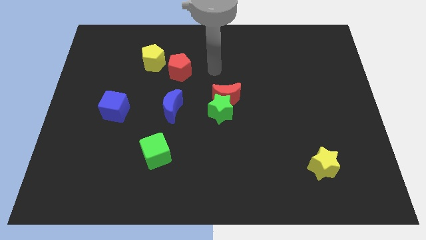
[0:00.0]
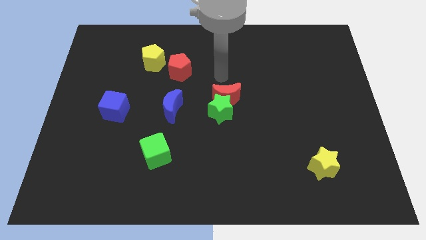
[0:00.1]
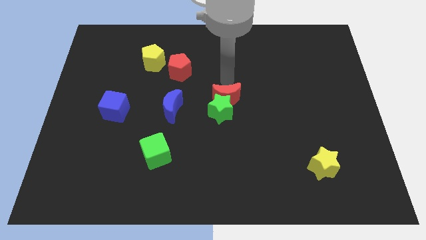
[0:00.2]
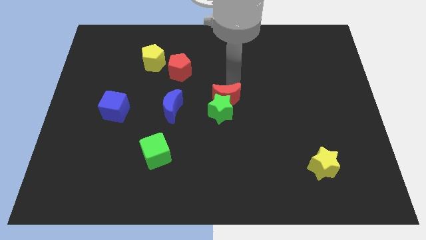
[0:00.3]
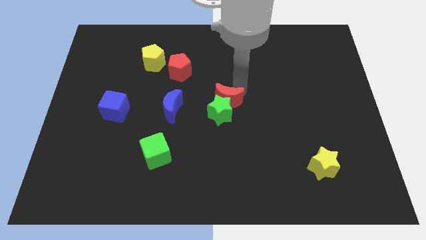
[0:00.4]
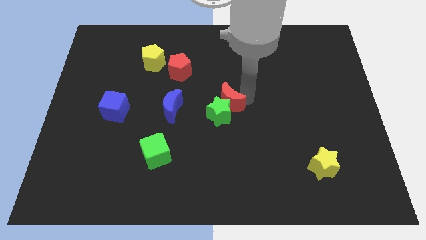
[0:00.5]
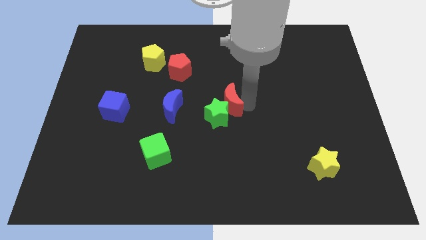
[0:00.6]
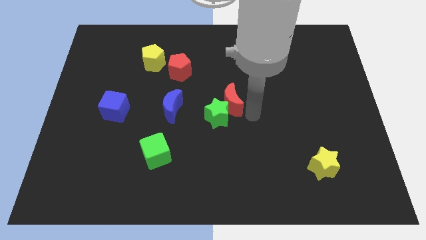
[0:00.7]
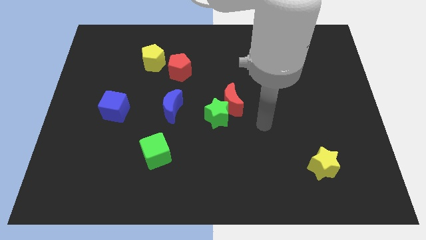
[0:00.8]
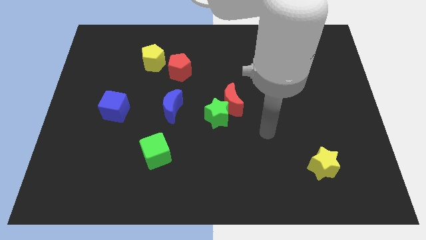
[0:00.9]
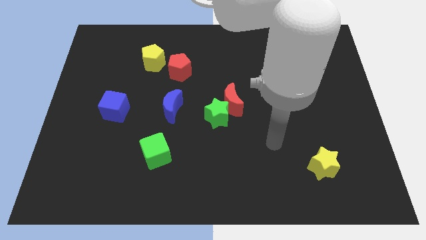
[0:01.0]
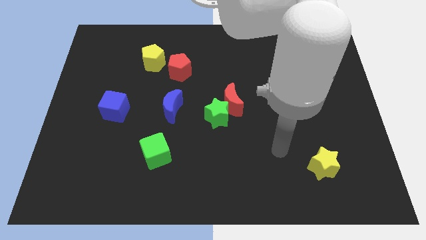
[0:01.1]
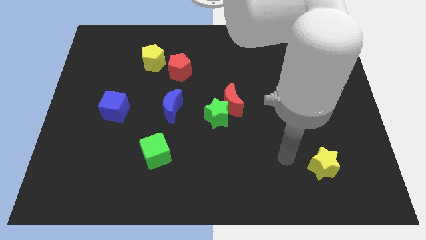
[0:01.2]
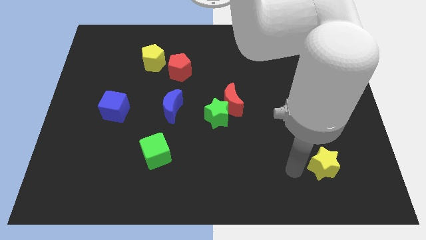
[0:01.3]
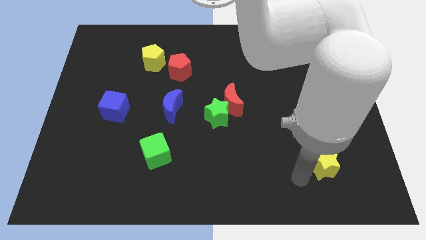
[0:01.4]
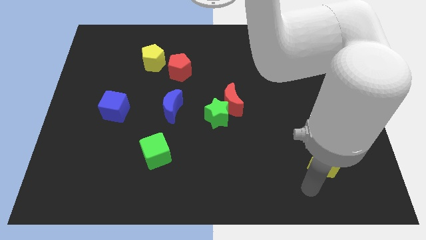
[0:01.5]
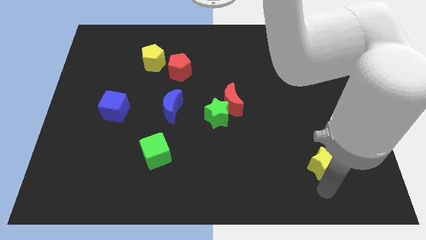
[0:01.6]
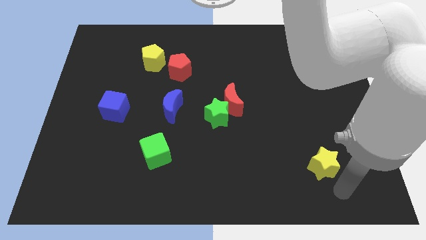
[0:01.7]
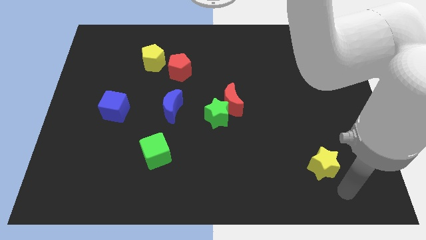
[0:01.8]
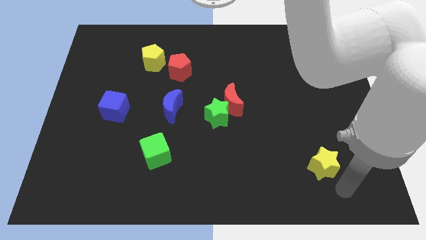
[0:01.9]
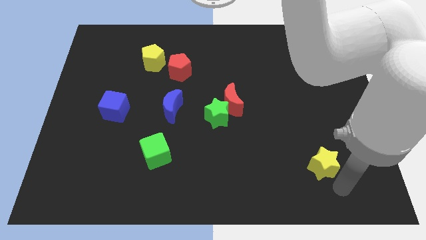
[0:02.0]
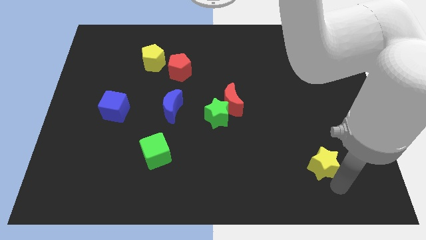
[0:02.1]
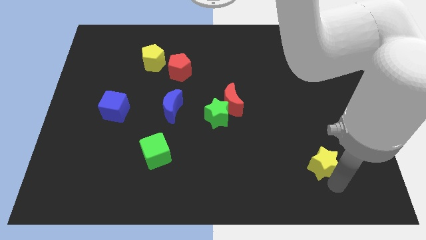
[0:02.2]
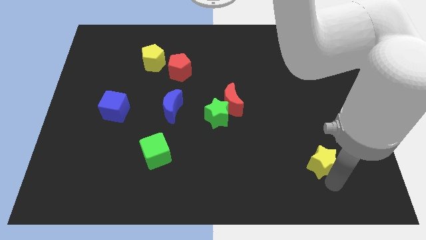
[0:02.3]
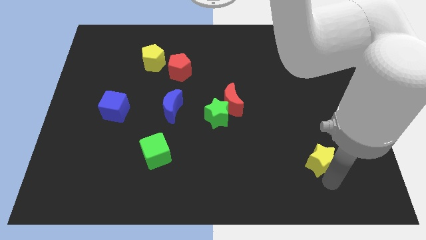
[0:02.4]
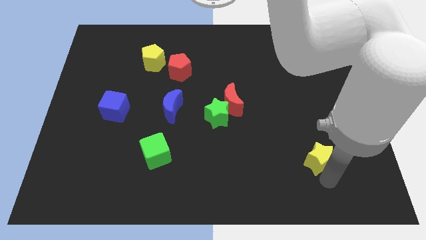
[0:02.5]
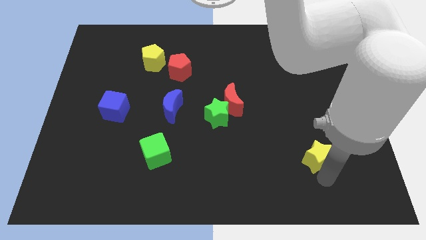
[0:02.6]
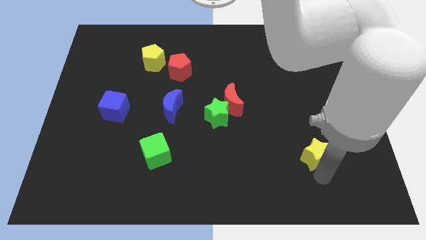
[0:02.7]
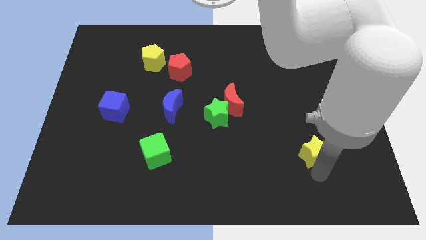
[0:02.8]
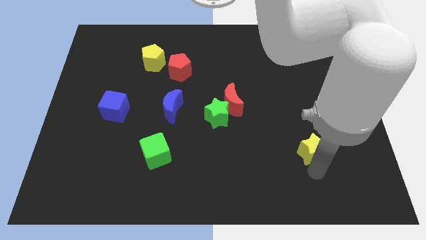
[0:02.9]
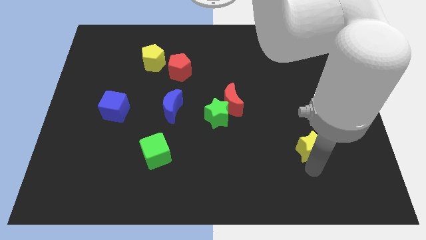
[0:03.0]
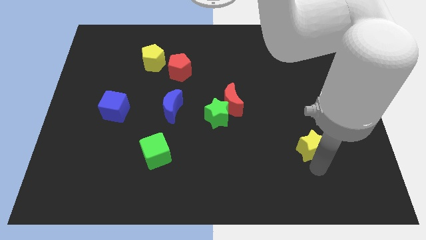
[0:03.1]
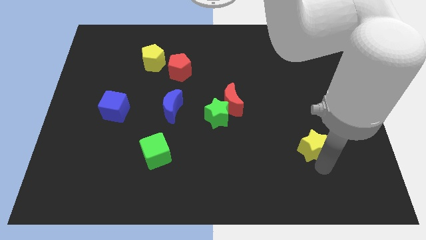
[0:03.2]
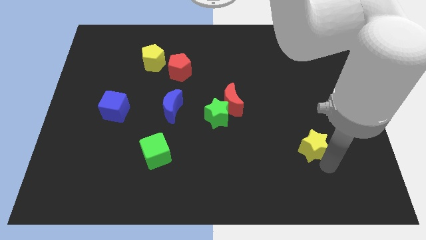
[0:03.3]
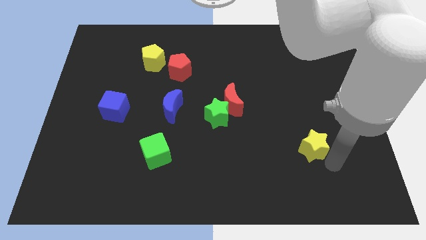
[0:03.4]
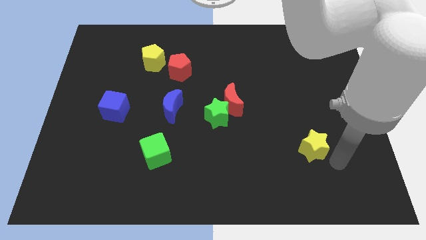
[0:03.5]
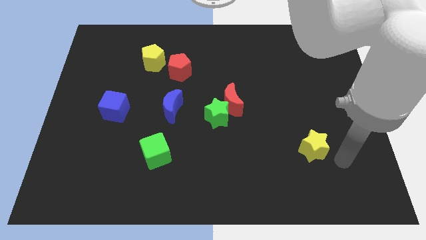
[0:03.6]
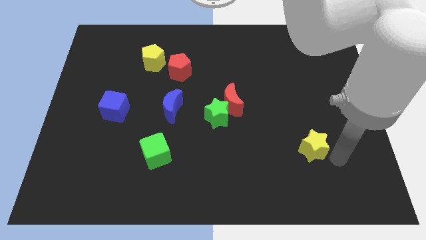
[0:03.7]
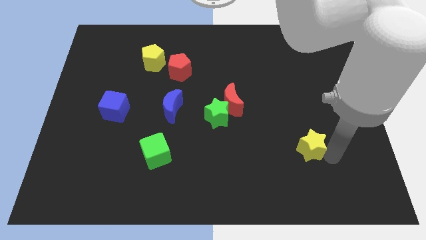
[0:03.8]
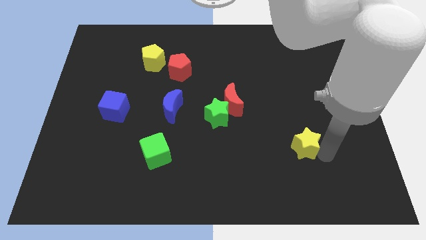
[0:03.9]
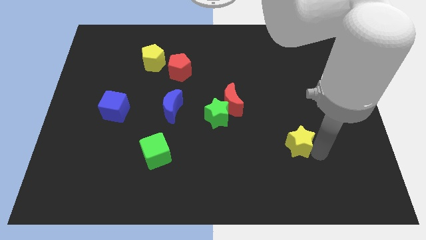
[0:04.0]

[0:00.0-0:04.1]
slide the yellow star a little bit upwards and left

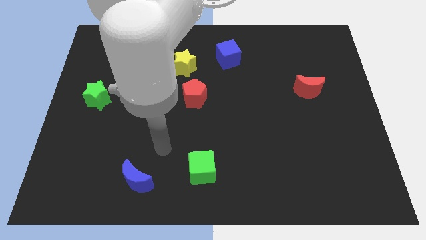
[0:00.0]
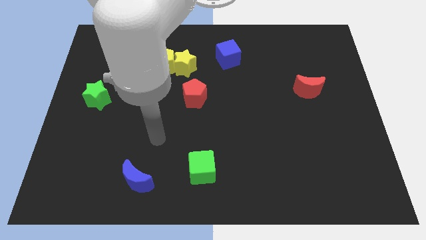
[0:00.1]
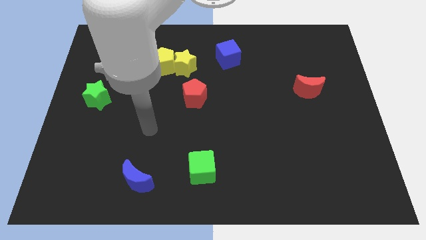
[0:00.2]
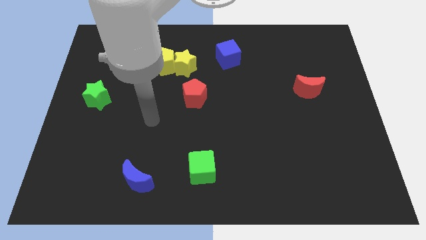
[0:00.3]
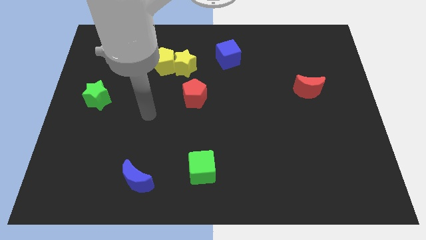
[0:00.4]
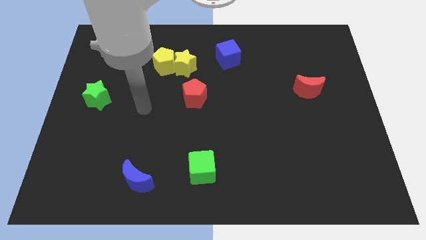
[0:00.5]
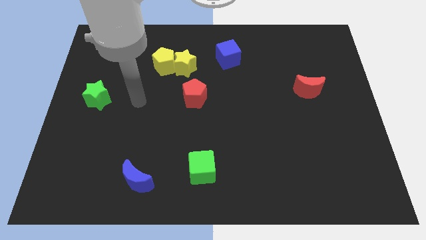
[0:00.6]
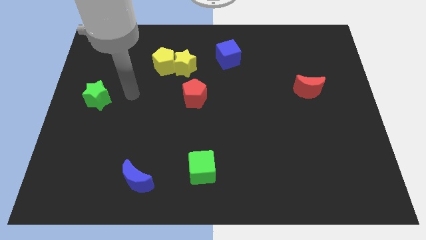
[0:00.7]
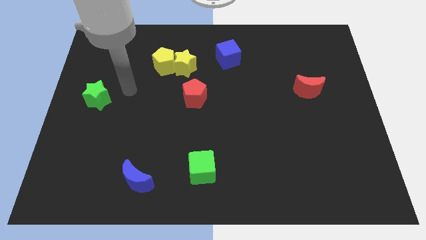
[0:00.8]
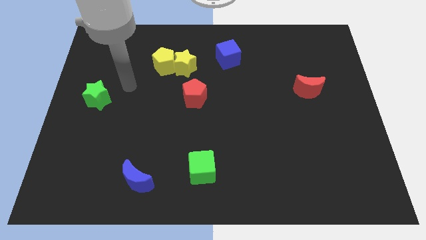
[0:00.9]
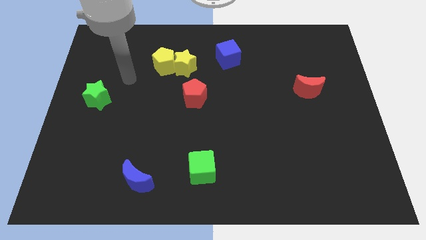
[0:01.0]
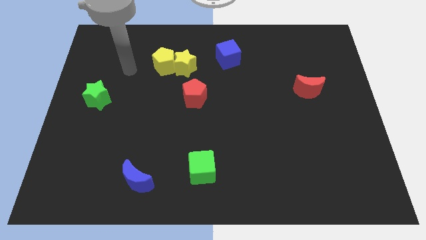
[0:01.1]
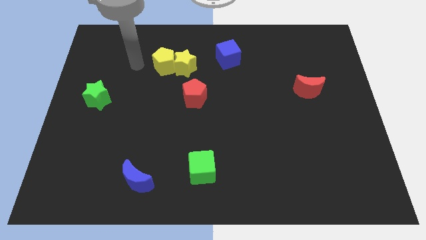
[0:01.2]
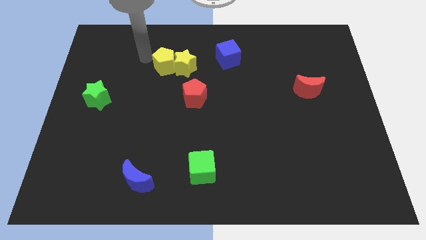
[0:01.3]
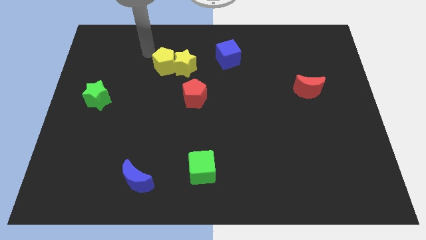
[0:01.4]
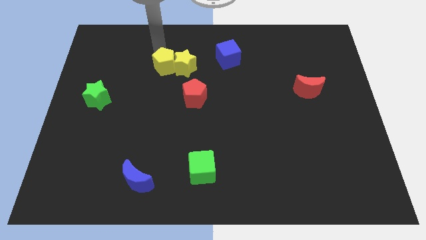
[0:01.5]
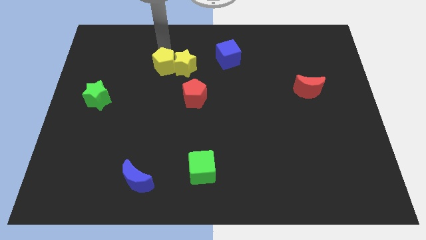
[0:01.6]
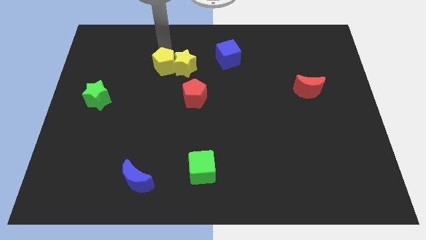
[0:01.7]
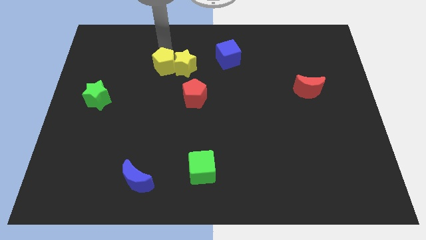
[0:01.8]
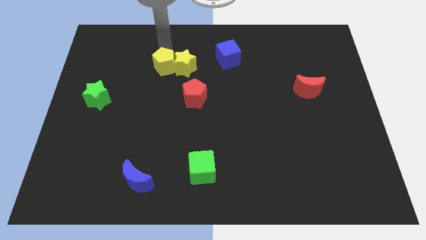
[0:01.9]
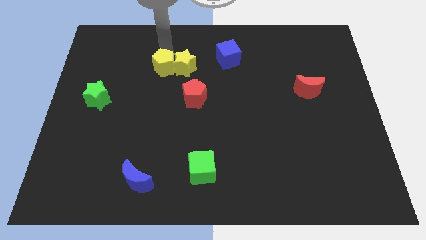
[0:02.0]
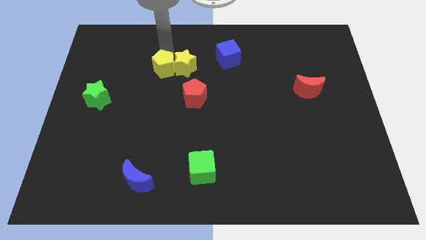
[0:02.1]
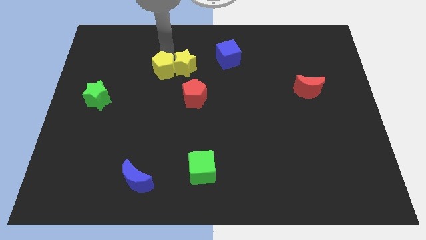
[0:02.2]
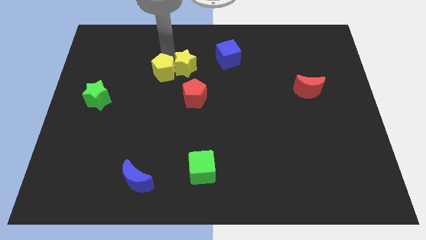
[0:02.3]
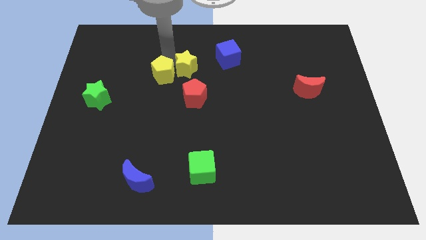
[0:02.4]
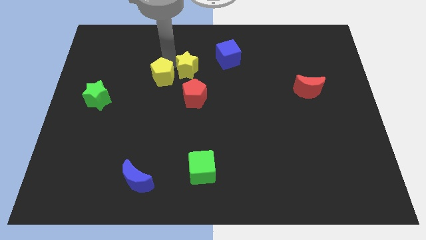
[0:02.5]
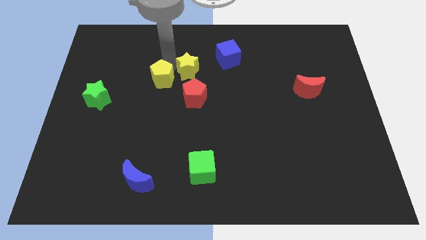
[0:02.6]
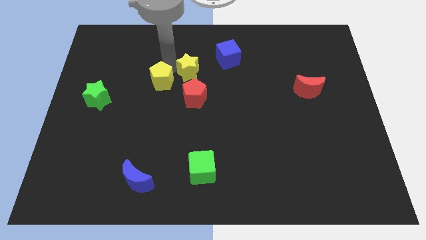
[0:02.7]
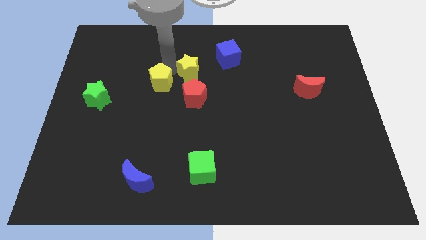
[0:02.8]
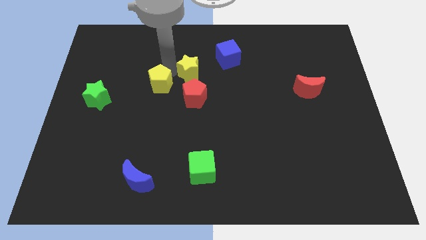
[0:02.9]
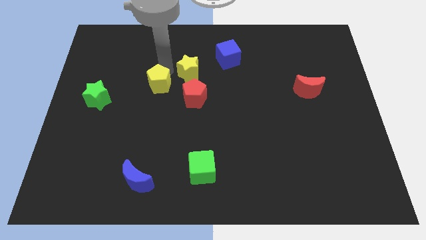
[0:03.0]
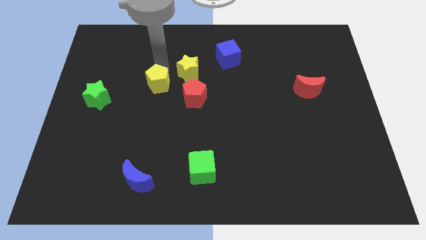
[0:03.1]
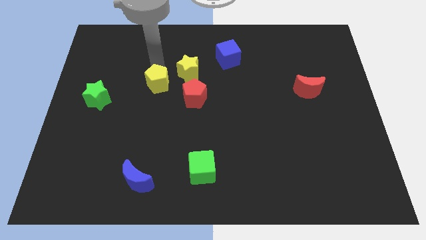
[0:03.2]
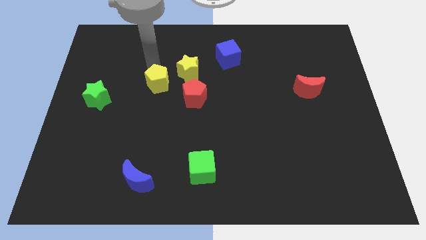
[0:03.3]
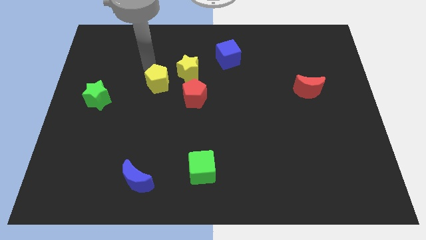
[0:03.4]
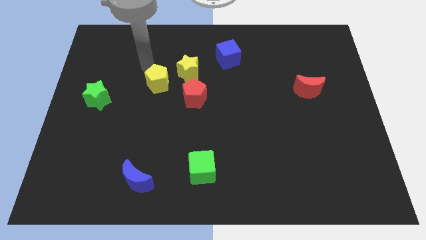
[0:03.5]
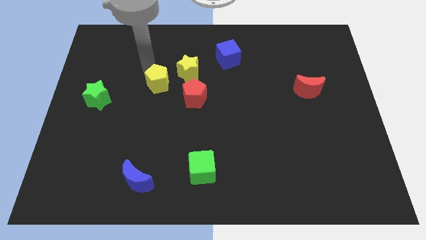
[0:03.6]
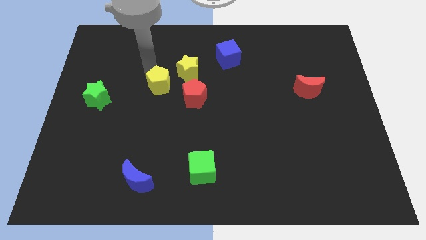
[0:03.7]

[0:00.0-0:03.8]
push the yellow pentagon a little down
